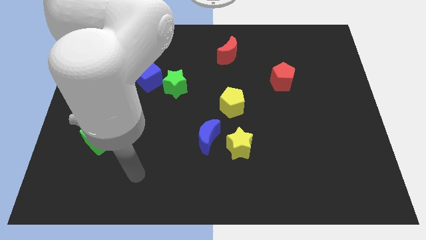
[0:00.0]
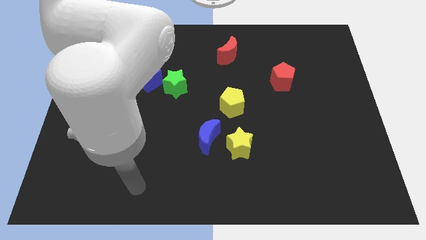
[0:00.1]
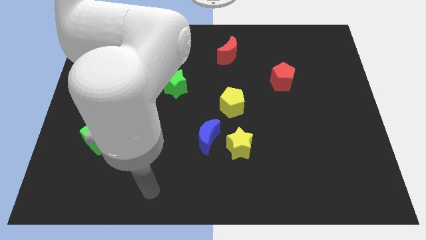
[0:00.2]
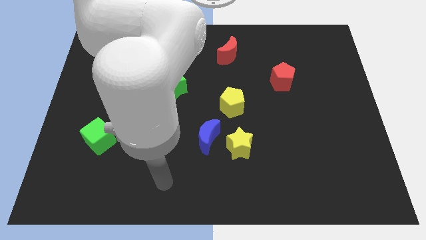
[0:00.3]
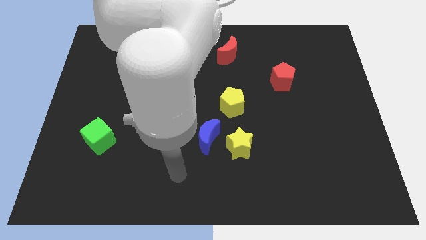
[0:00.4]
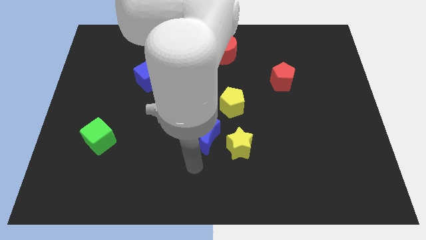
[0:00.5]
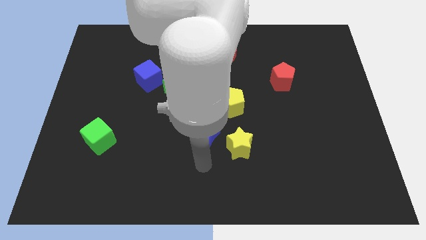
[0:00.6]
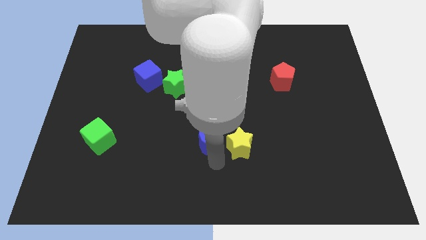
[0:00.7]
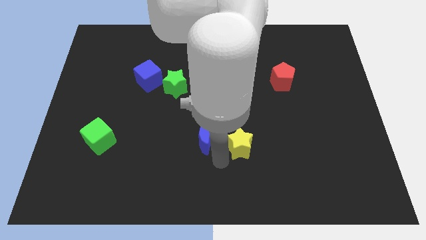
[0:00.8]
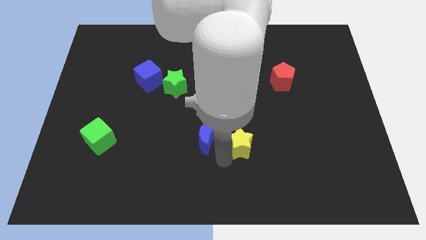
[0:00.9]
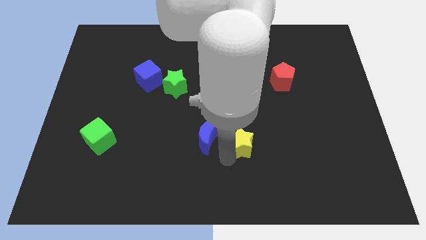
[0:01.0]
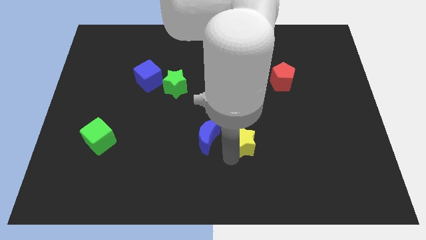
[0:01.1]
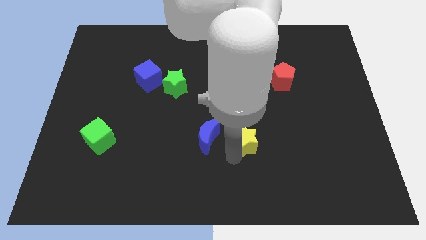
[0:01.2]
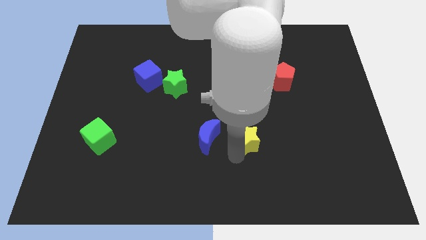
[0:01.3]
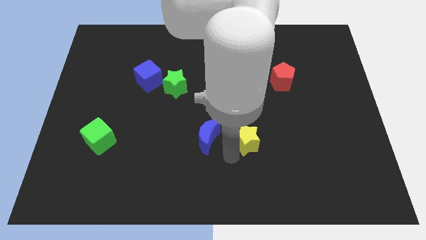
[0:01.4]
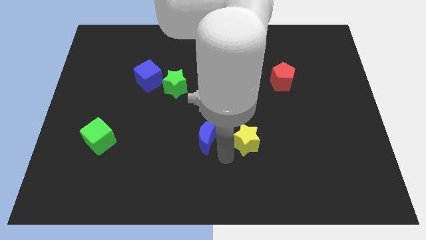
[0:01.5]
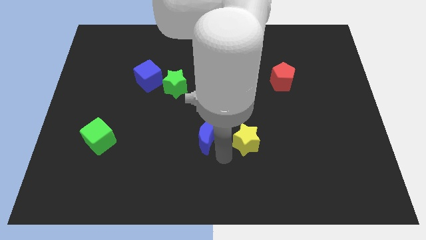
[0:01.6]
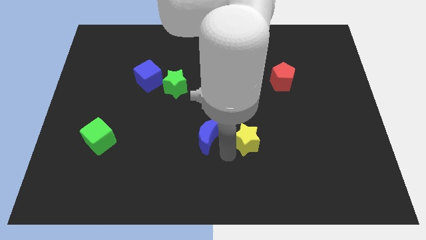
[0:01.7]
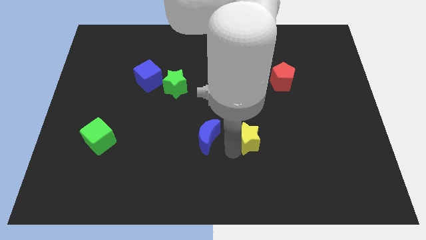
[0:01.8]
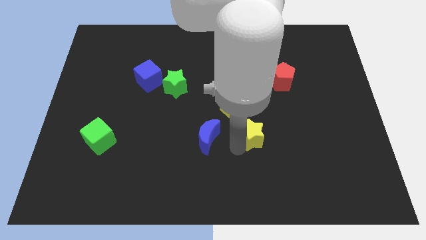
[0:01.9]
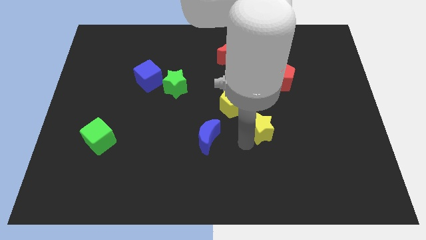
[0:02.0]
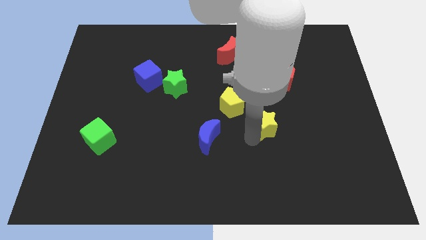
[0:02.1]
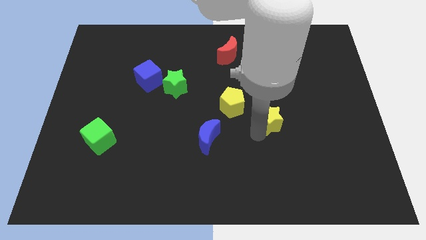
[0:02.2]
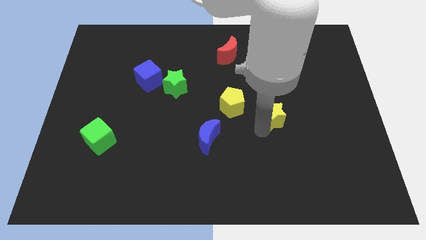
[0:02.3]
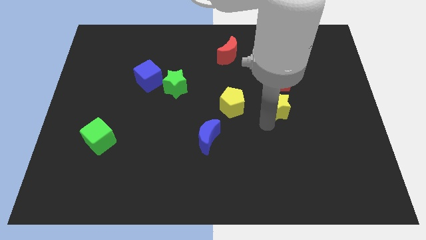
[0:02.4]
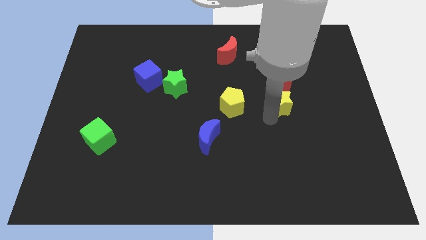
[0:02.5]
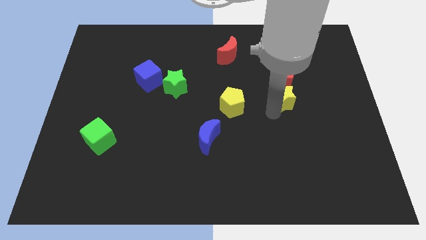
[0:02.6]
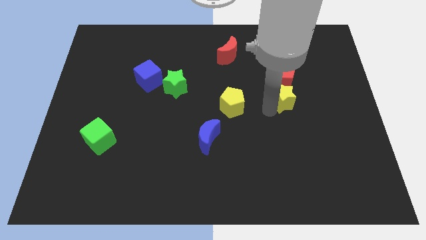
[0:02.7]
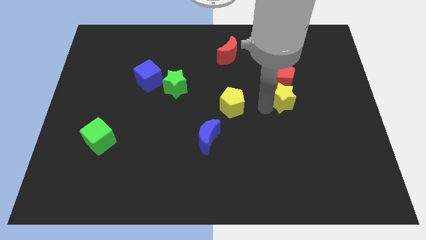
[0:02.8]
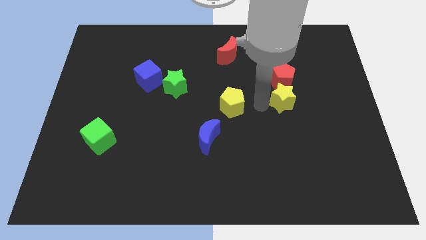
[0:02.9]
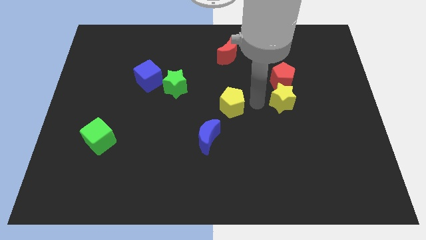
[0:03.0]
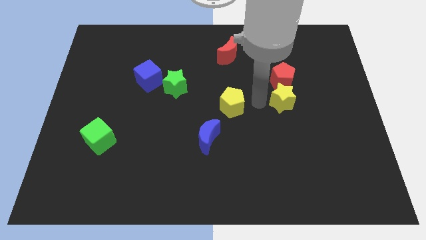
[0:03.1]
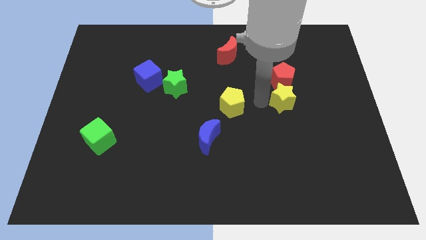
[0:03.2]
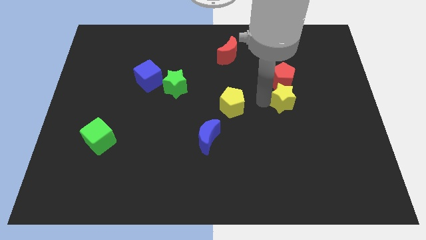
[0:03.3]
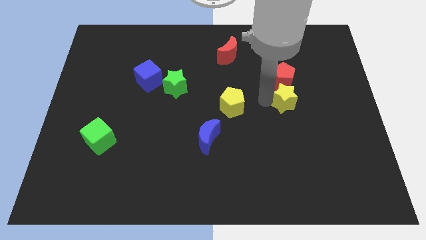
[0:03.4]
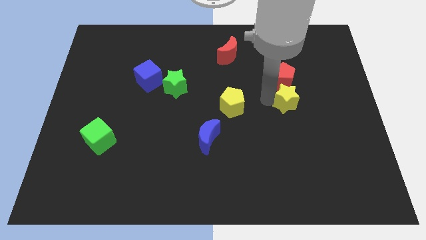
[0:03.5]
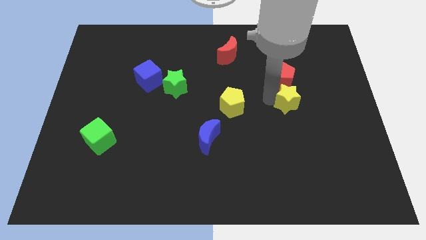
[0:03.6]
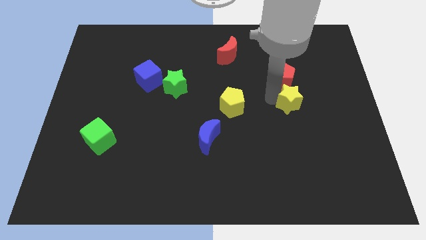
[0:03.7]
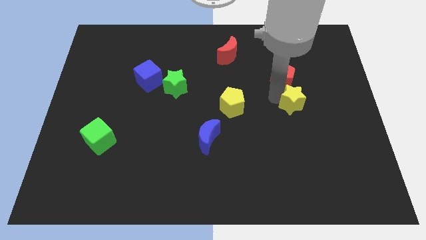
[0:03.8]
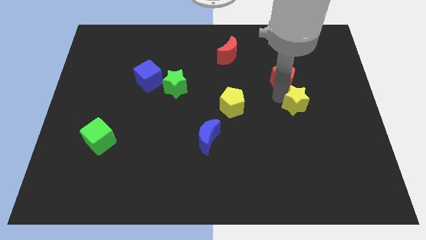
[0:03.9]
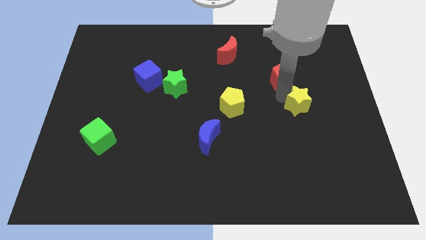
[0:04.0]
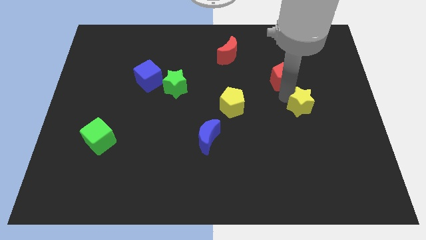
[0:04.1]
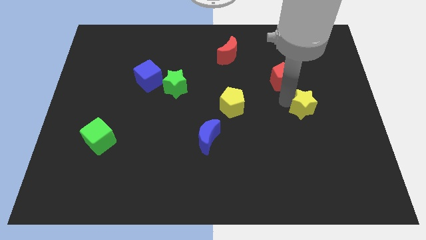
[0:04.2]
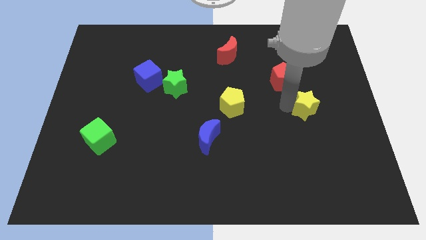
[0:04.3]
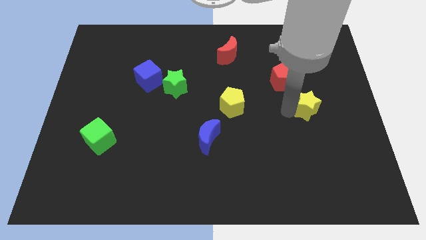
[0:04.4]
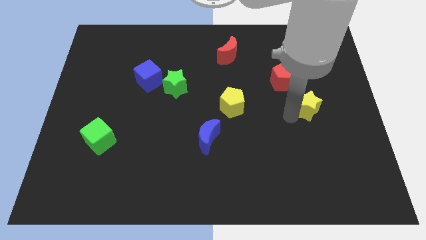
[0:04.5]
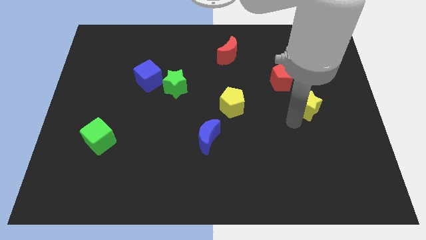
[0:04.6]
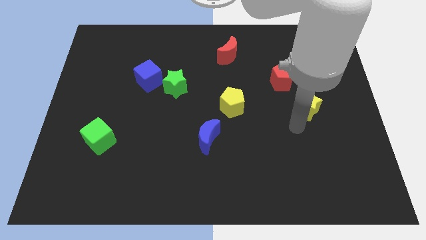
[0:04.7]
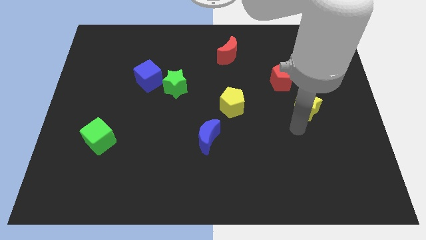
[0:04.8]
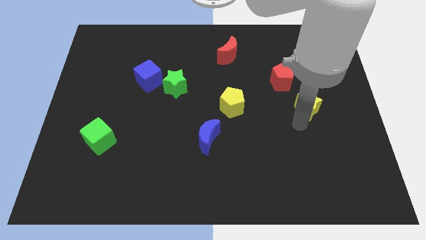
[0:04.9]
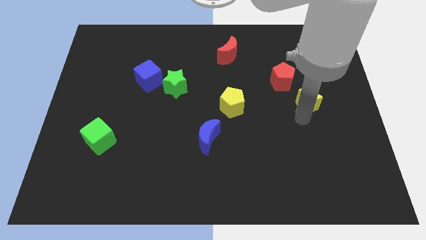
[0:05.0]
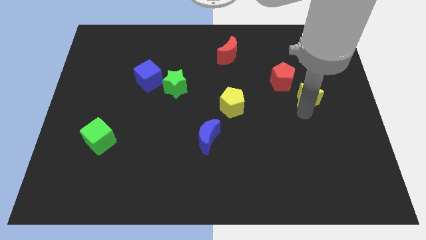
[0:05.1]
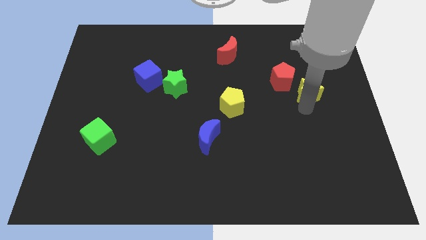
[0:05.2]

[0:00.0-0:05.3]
push the yellow star to the right side of the red pentagon

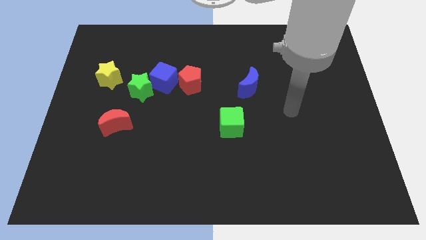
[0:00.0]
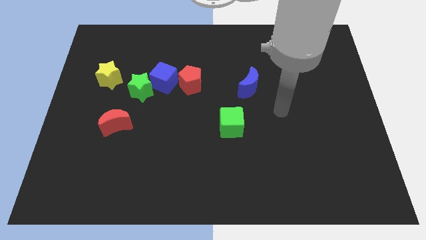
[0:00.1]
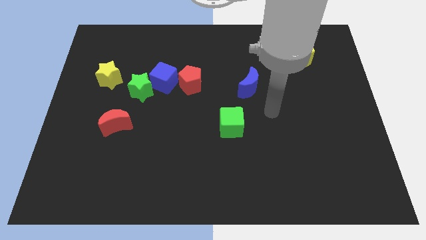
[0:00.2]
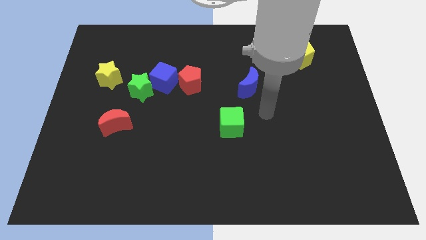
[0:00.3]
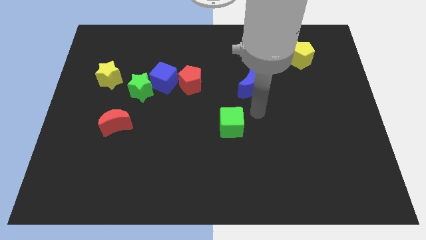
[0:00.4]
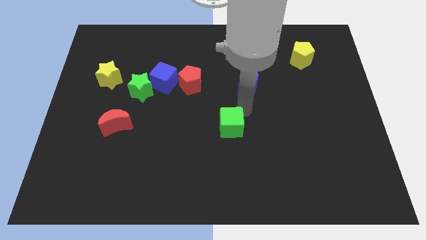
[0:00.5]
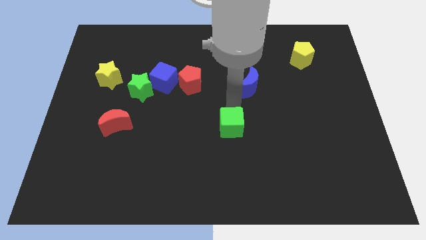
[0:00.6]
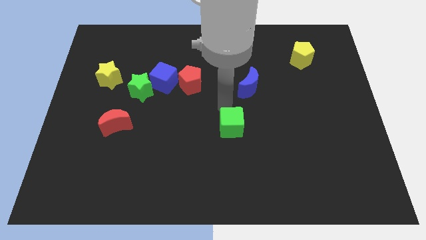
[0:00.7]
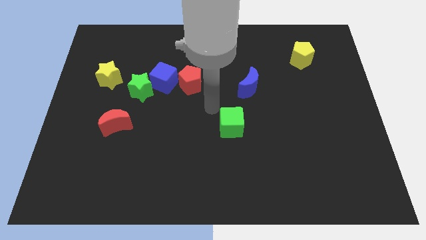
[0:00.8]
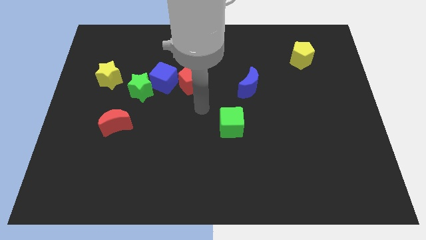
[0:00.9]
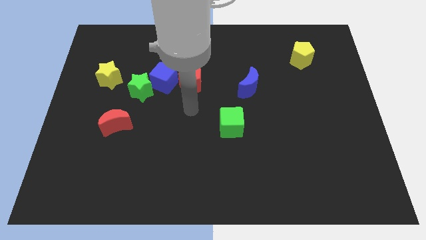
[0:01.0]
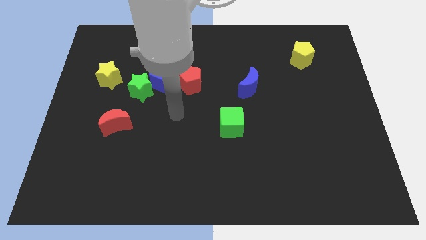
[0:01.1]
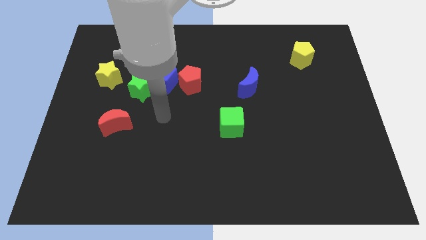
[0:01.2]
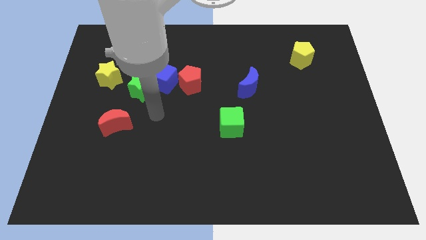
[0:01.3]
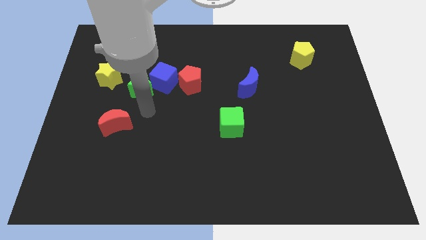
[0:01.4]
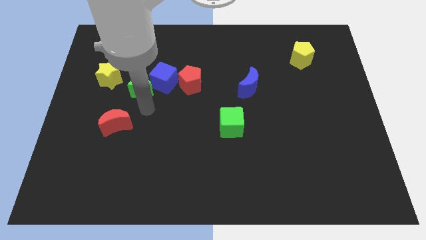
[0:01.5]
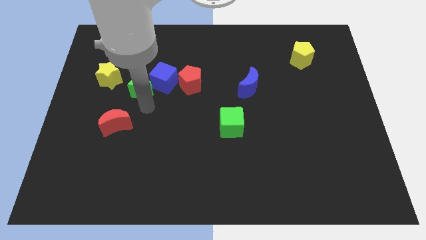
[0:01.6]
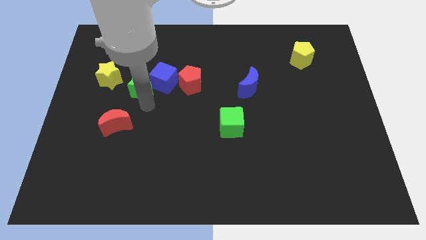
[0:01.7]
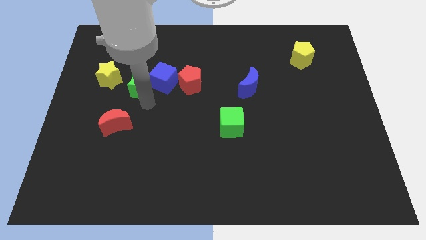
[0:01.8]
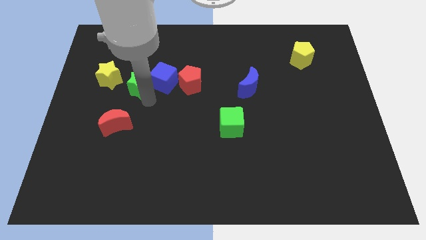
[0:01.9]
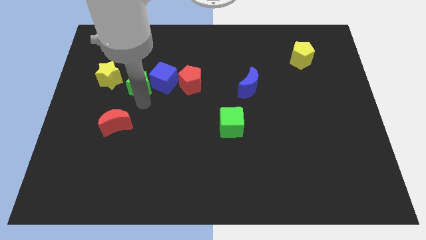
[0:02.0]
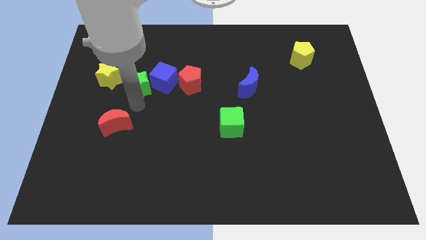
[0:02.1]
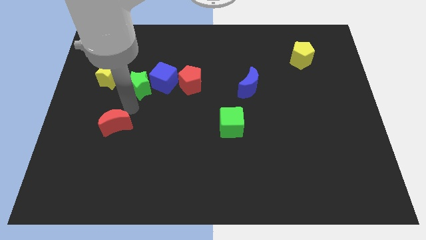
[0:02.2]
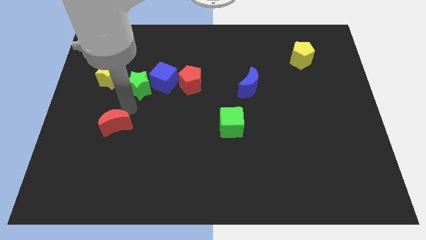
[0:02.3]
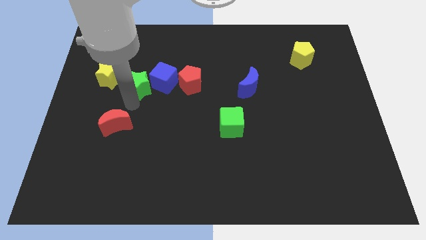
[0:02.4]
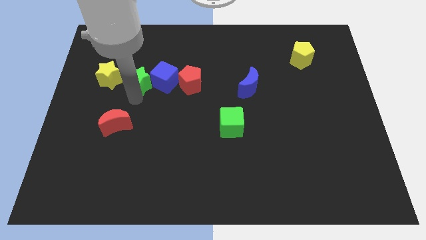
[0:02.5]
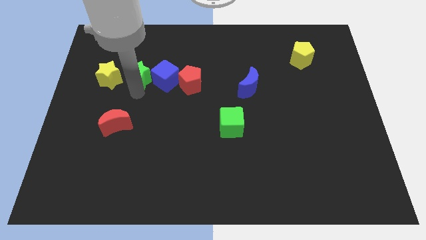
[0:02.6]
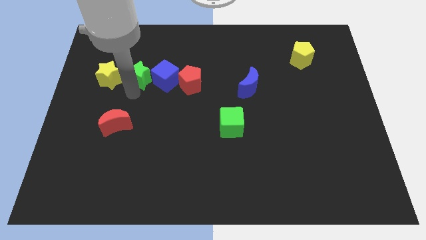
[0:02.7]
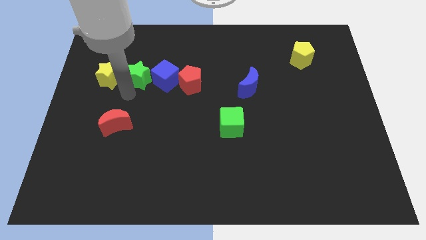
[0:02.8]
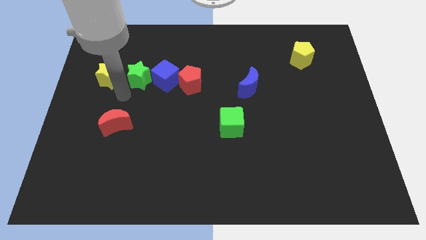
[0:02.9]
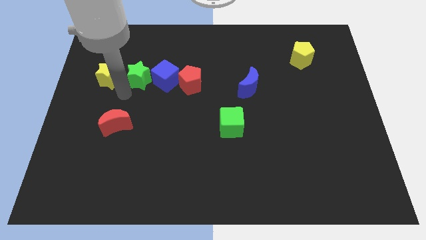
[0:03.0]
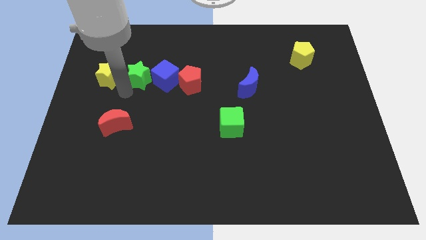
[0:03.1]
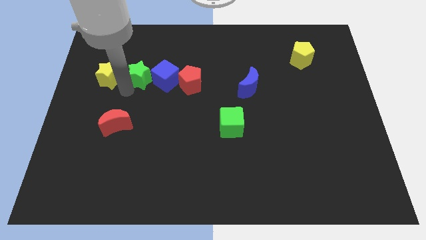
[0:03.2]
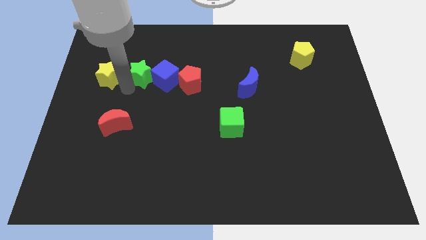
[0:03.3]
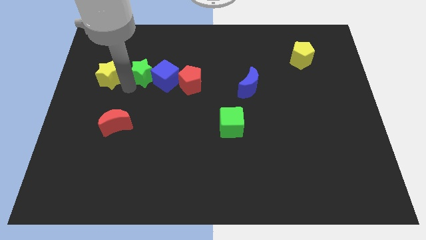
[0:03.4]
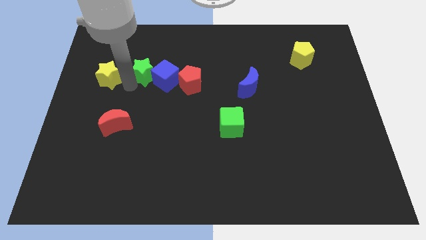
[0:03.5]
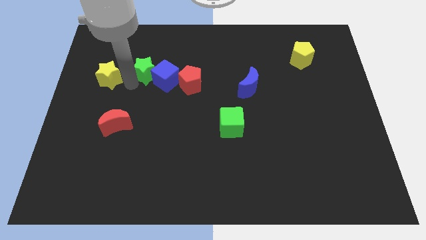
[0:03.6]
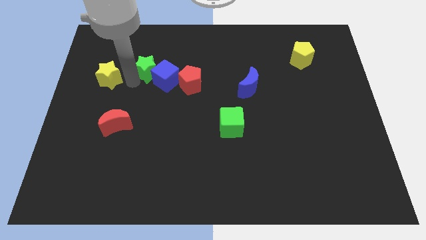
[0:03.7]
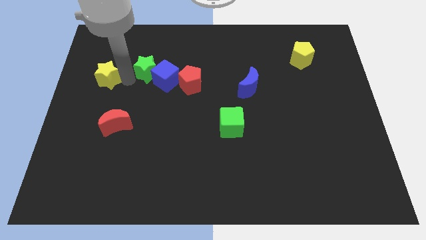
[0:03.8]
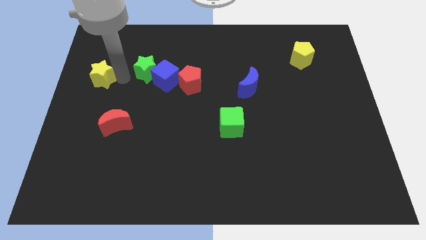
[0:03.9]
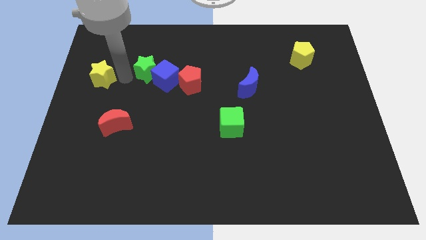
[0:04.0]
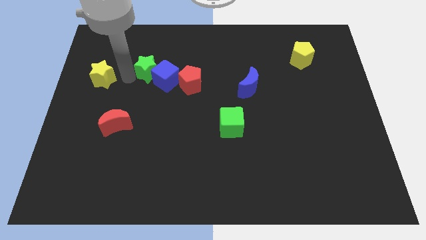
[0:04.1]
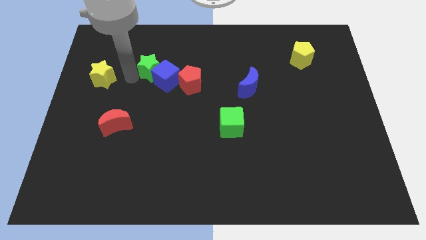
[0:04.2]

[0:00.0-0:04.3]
slide the green star diagonally up and to the left of the red pentagon
